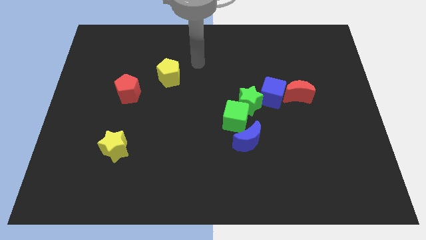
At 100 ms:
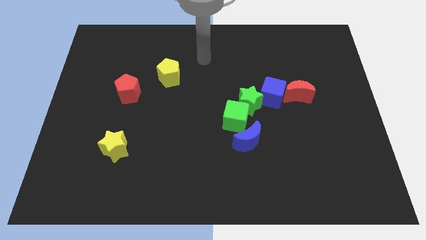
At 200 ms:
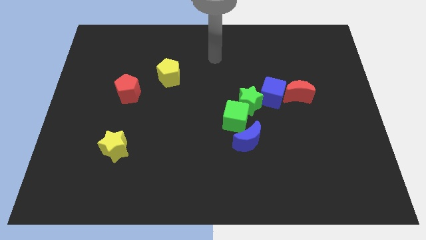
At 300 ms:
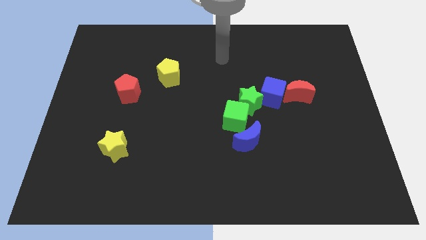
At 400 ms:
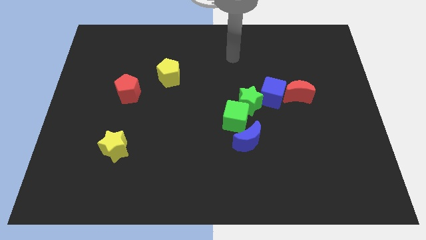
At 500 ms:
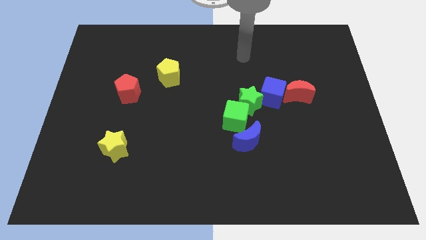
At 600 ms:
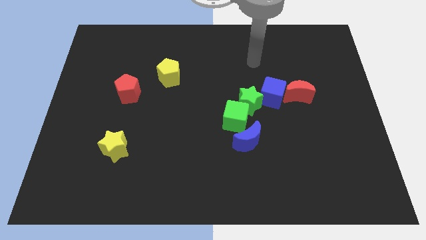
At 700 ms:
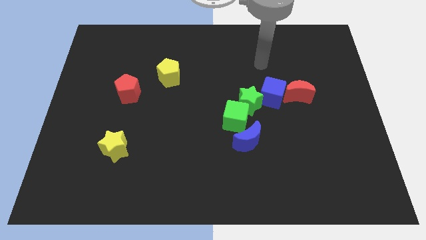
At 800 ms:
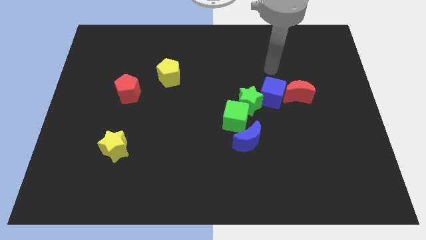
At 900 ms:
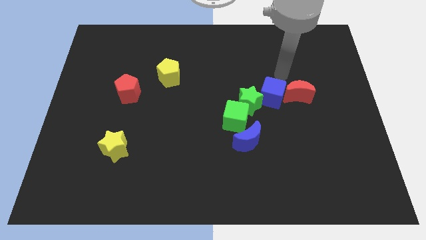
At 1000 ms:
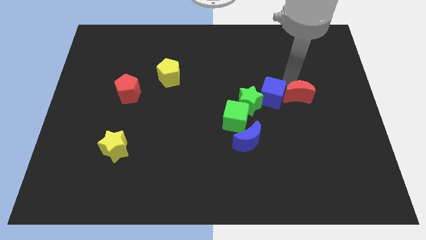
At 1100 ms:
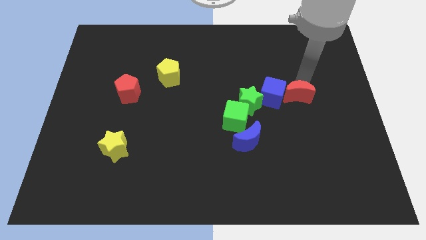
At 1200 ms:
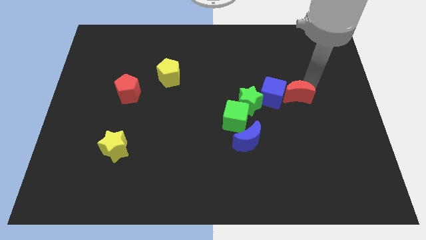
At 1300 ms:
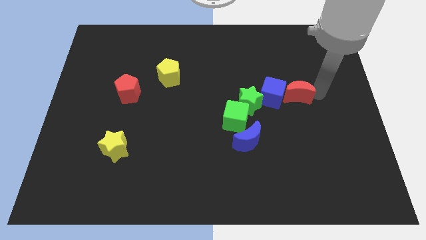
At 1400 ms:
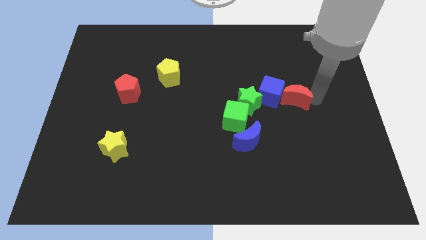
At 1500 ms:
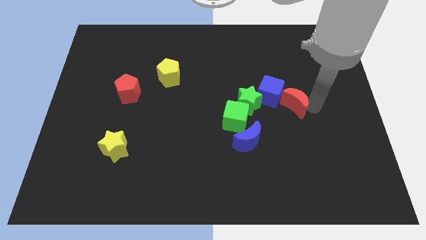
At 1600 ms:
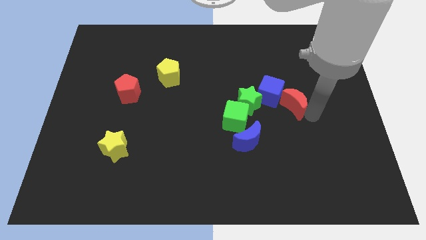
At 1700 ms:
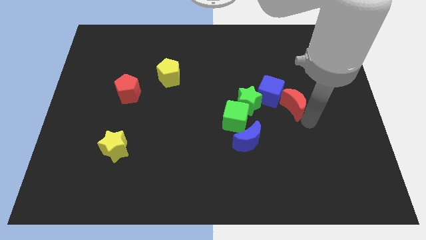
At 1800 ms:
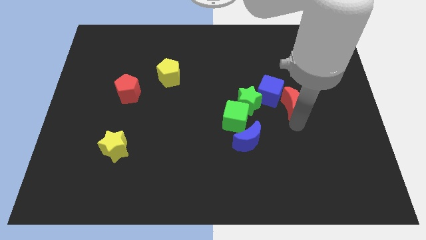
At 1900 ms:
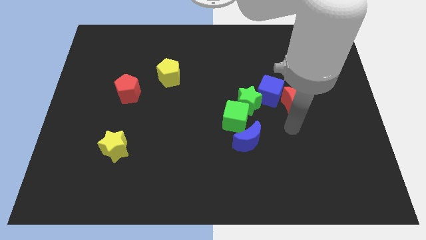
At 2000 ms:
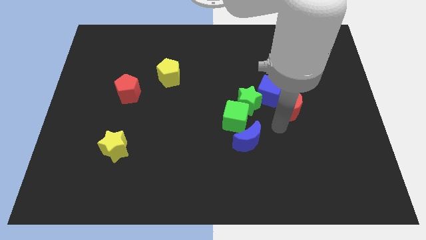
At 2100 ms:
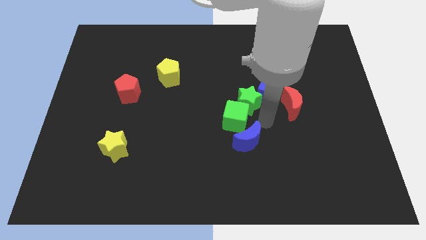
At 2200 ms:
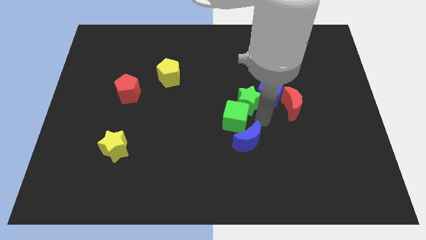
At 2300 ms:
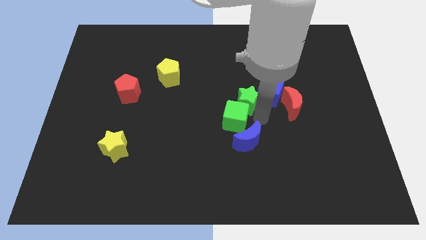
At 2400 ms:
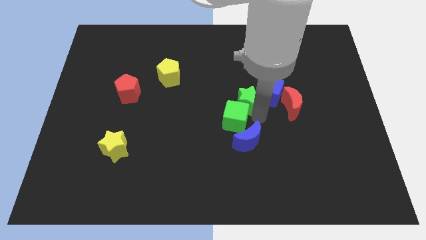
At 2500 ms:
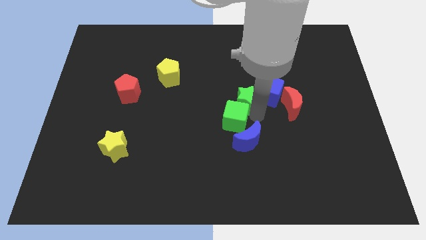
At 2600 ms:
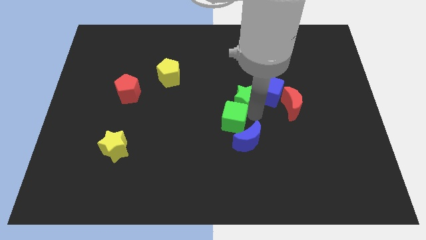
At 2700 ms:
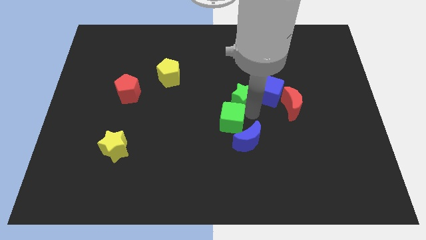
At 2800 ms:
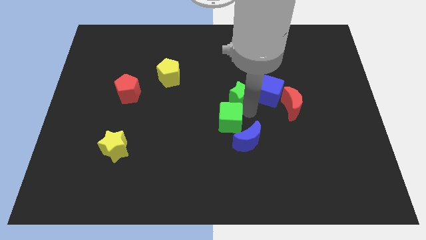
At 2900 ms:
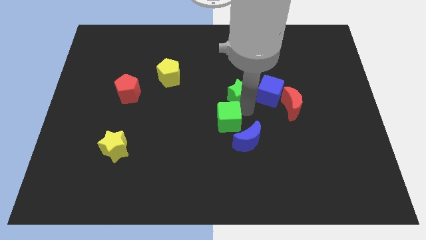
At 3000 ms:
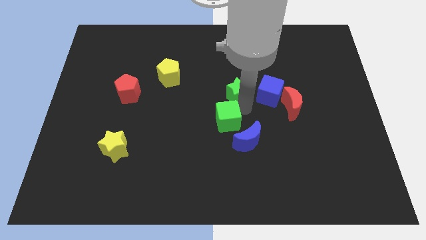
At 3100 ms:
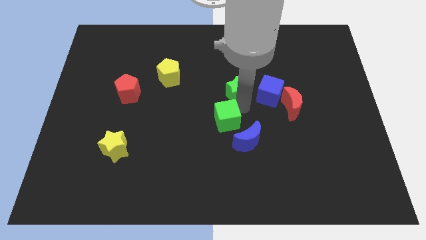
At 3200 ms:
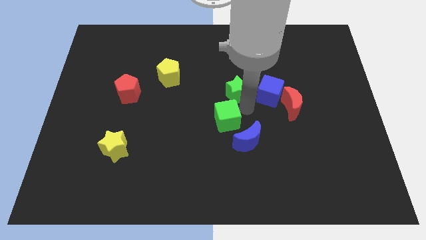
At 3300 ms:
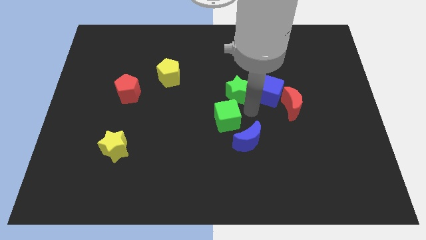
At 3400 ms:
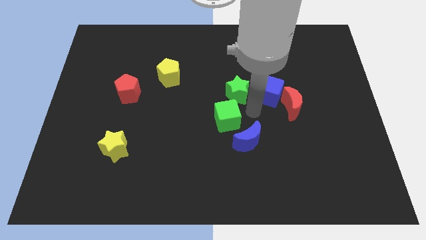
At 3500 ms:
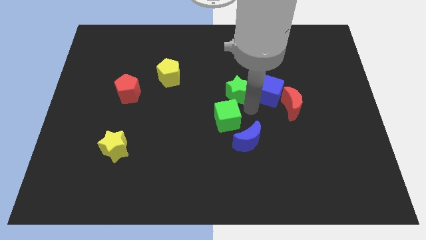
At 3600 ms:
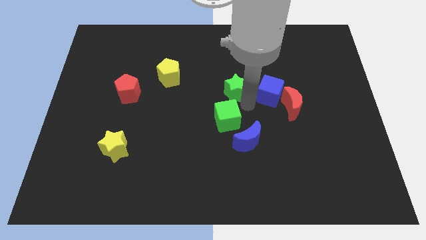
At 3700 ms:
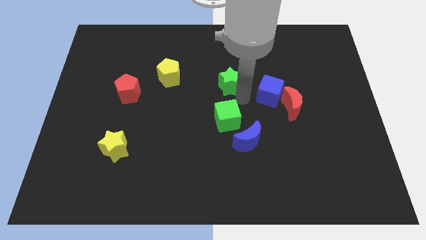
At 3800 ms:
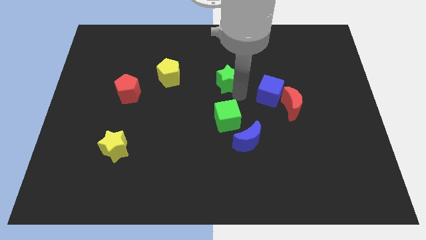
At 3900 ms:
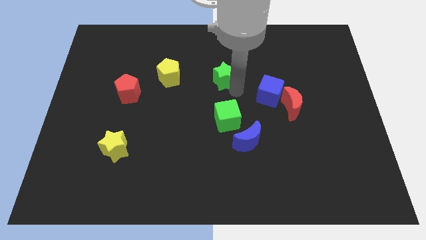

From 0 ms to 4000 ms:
separate the green star from the green cube and blue cube

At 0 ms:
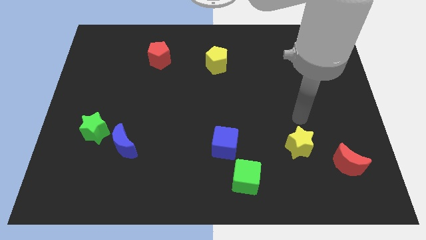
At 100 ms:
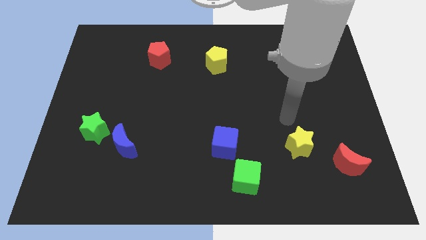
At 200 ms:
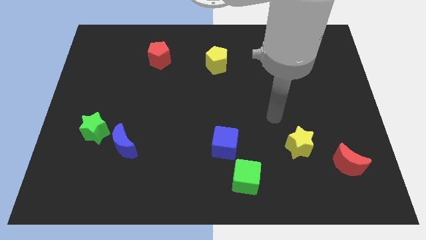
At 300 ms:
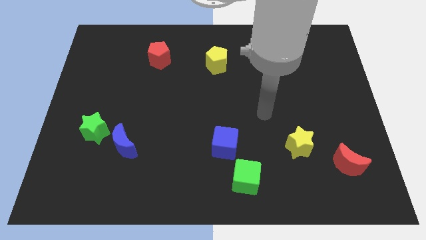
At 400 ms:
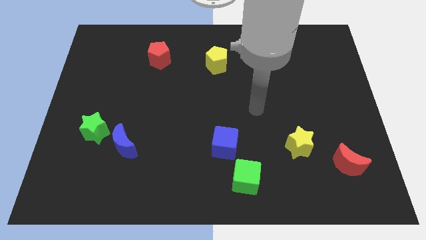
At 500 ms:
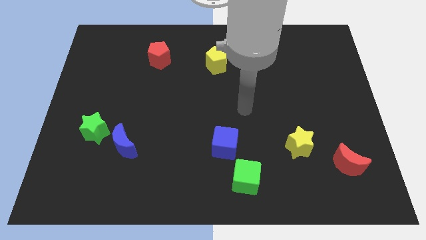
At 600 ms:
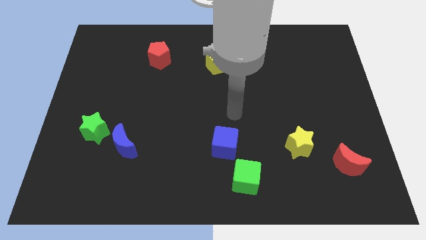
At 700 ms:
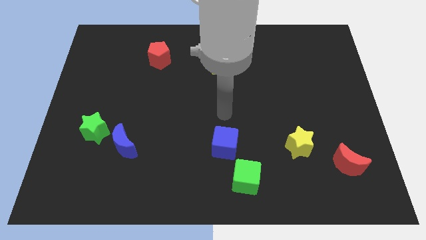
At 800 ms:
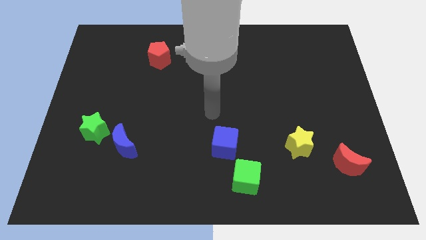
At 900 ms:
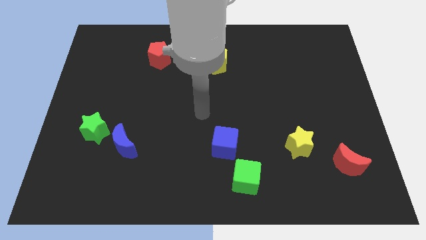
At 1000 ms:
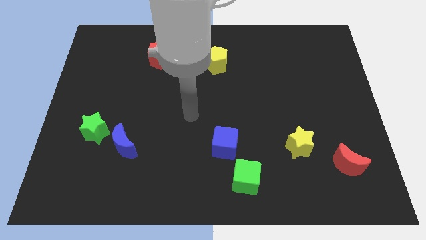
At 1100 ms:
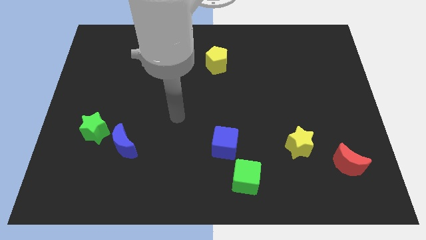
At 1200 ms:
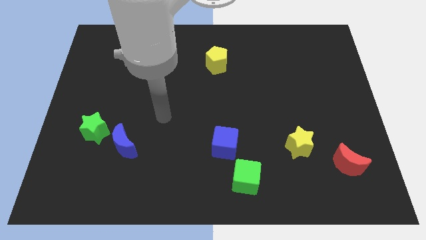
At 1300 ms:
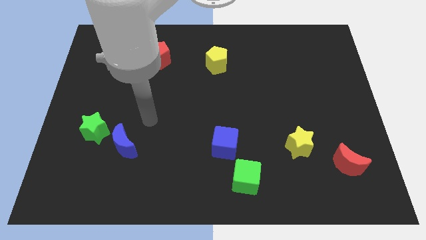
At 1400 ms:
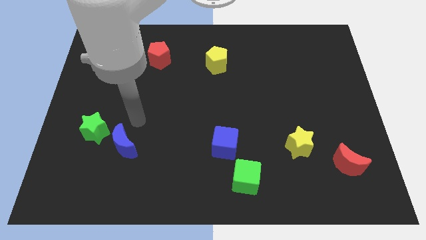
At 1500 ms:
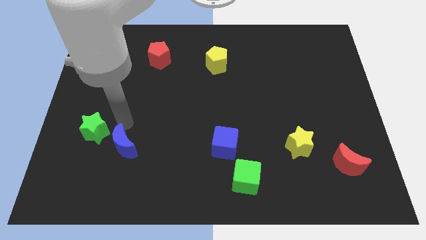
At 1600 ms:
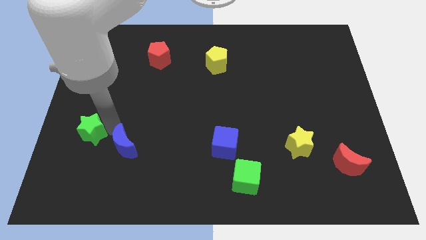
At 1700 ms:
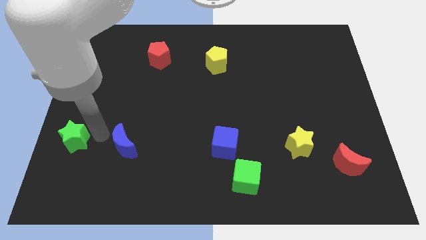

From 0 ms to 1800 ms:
pull the blue moon apart from the green star

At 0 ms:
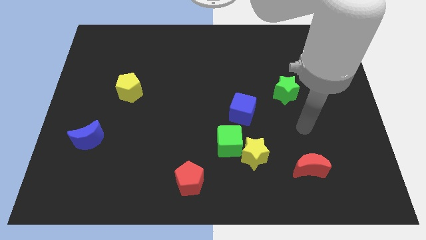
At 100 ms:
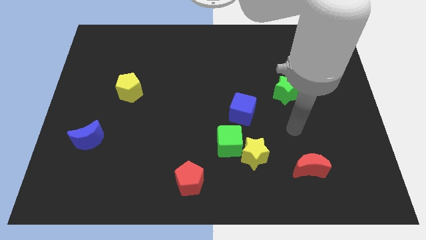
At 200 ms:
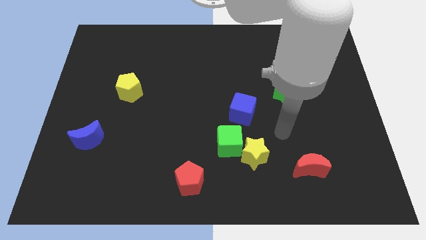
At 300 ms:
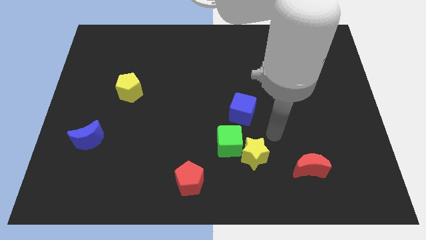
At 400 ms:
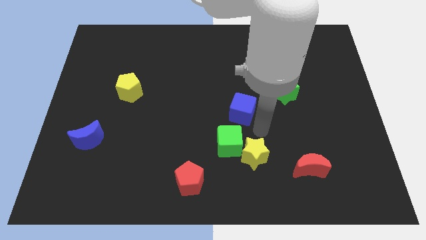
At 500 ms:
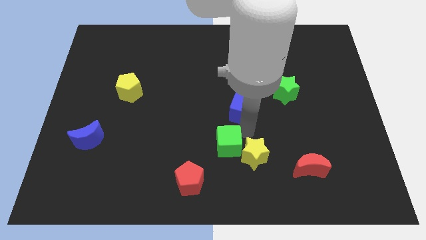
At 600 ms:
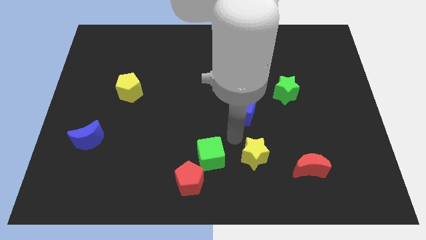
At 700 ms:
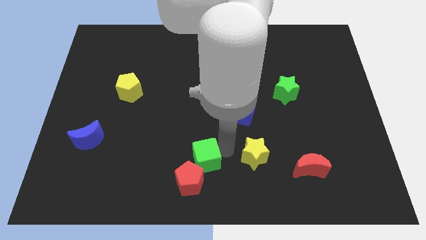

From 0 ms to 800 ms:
separate the yellow star from the green cube

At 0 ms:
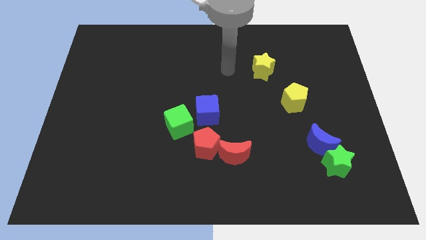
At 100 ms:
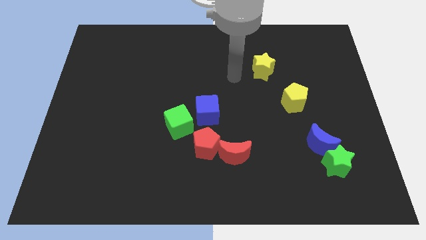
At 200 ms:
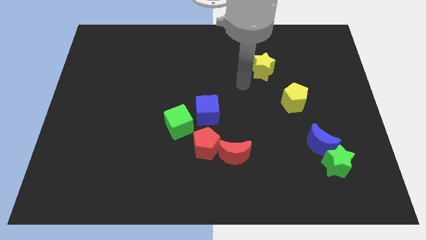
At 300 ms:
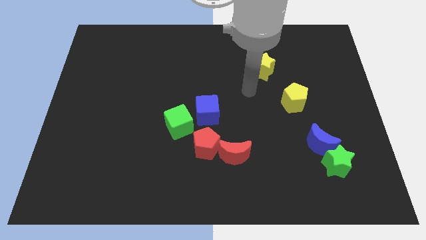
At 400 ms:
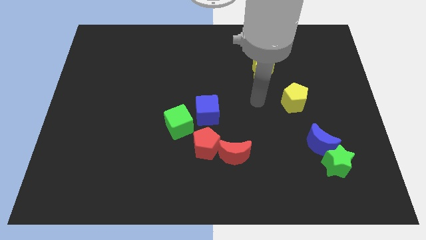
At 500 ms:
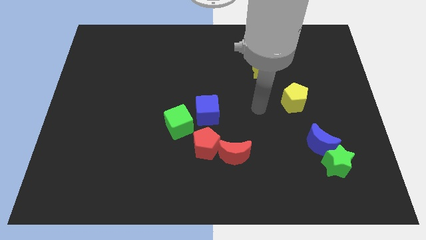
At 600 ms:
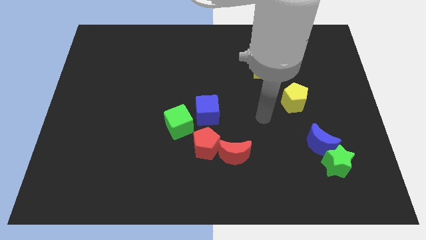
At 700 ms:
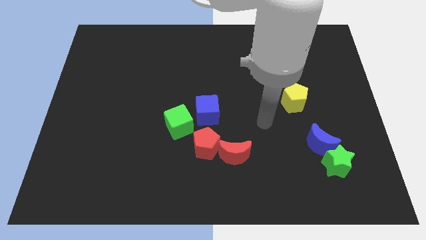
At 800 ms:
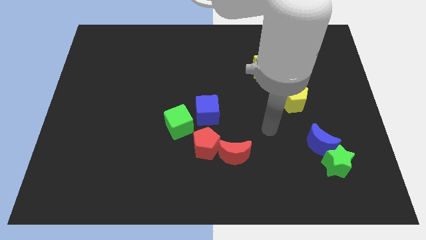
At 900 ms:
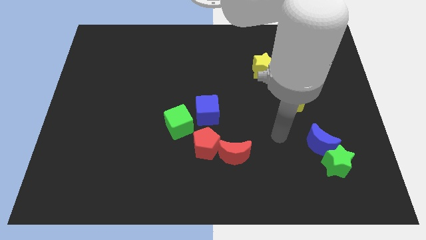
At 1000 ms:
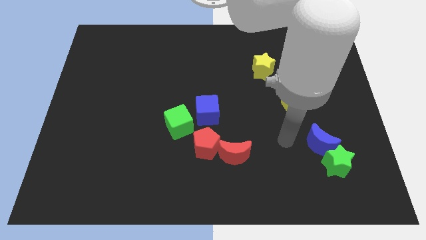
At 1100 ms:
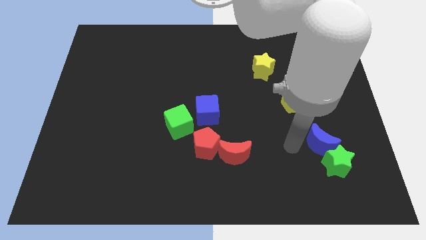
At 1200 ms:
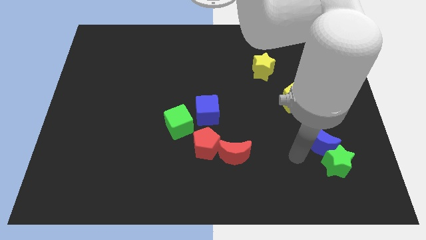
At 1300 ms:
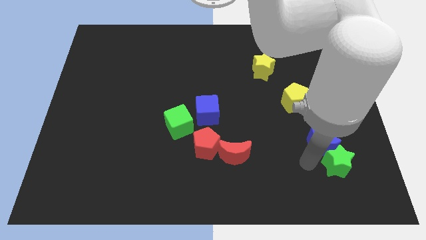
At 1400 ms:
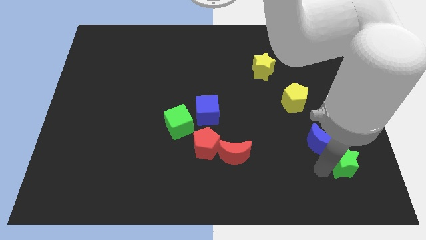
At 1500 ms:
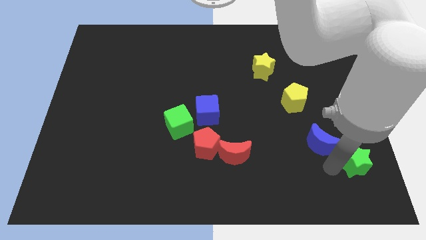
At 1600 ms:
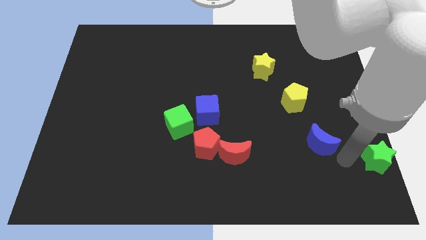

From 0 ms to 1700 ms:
move the blue moon away from the green star

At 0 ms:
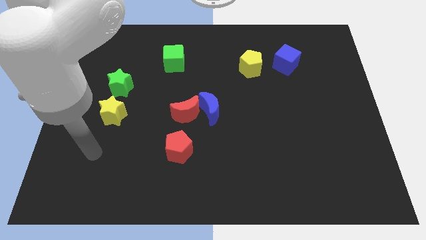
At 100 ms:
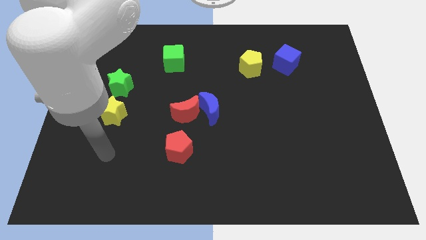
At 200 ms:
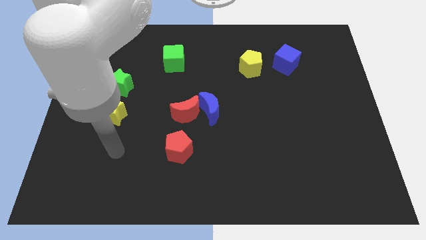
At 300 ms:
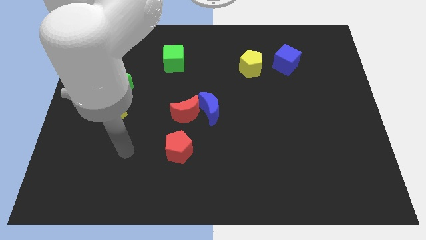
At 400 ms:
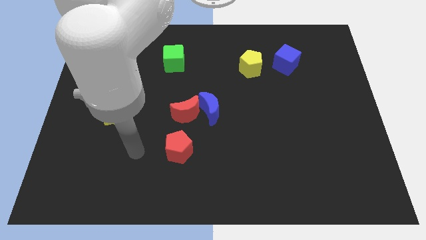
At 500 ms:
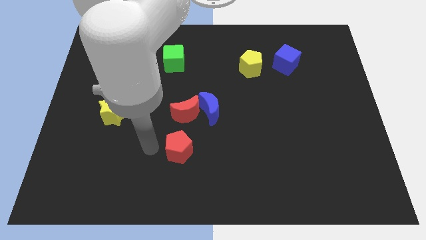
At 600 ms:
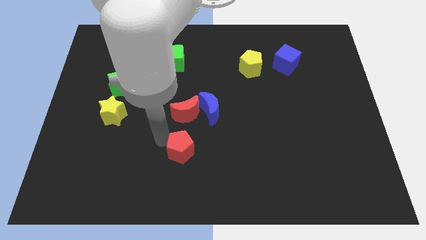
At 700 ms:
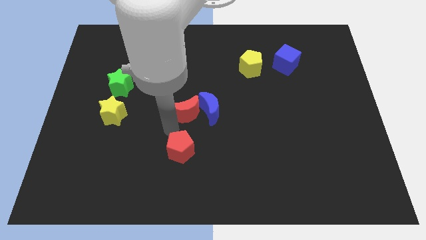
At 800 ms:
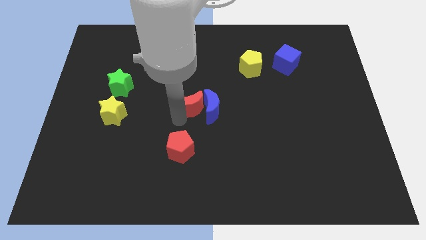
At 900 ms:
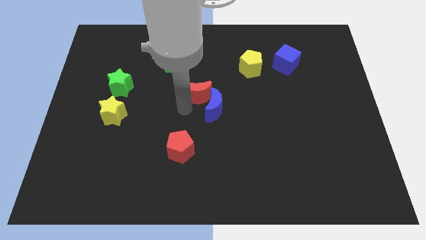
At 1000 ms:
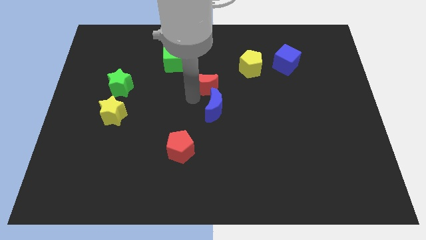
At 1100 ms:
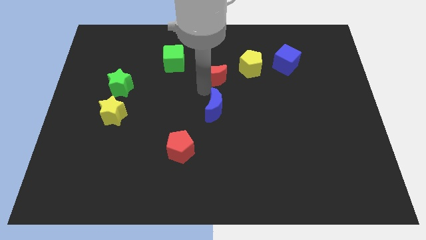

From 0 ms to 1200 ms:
pull the blue moon apart from the red moon

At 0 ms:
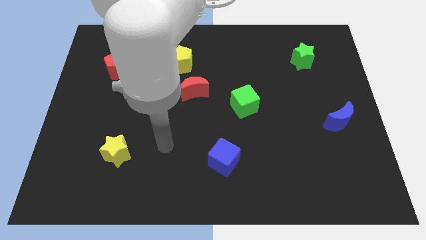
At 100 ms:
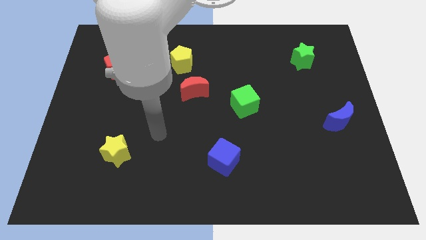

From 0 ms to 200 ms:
separate the red moon from the yellow pentagon
